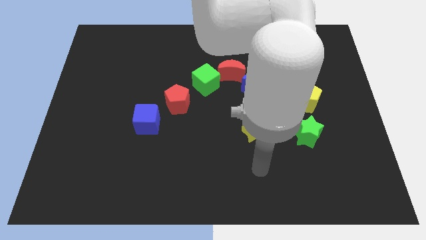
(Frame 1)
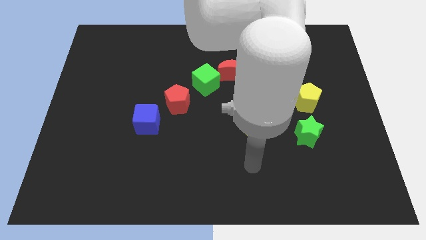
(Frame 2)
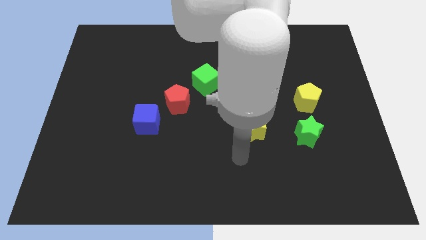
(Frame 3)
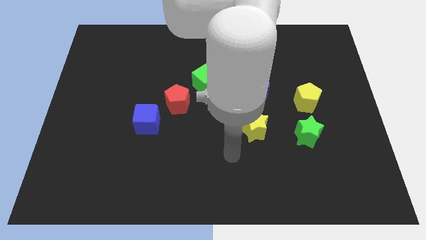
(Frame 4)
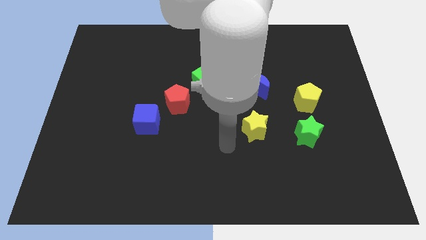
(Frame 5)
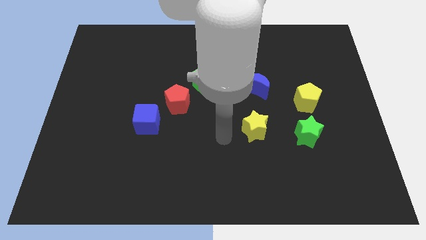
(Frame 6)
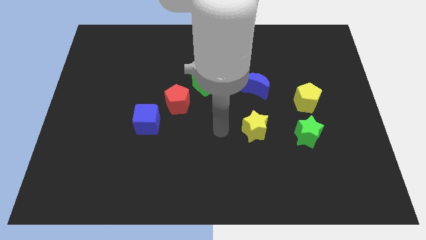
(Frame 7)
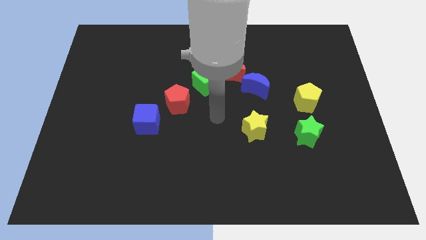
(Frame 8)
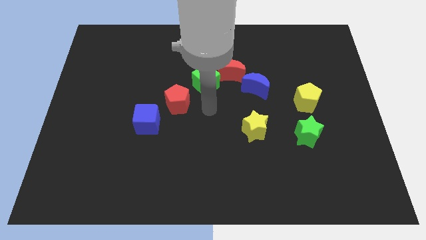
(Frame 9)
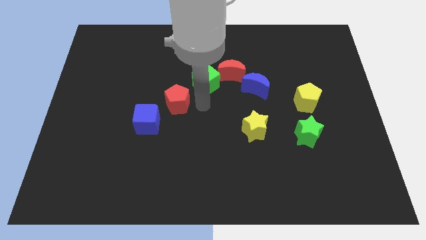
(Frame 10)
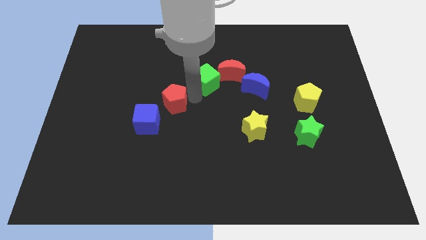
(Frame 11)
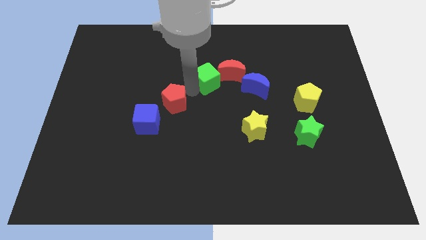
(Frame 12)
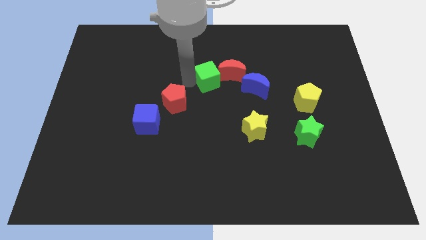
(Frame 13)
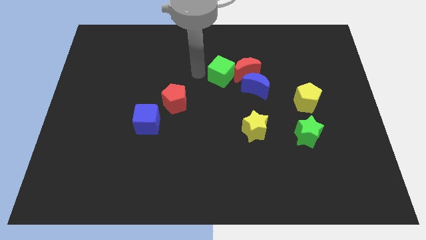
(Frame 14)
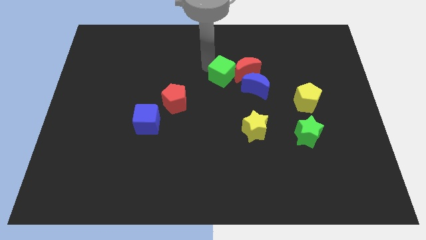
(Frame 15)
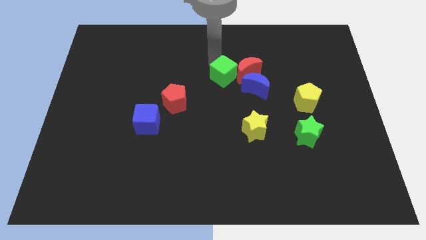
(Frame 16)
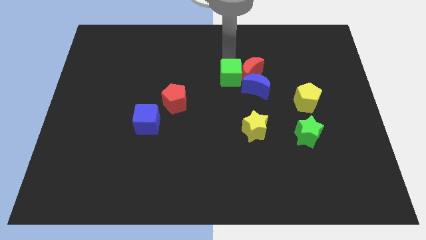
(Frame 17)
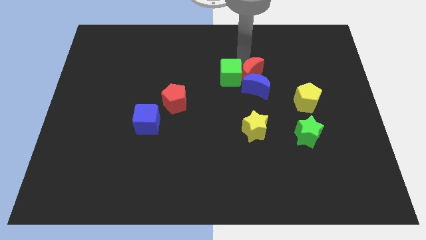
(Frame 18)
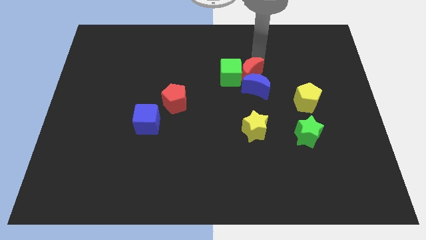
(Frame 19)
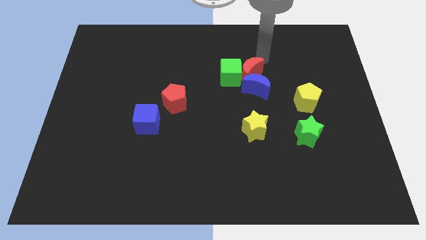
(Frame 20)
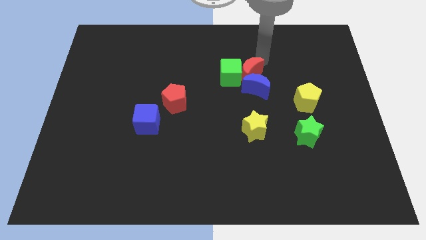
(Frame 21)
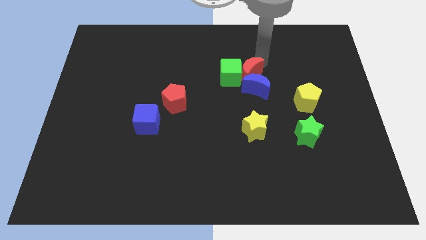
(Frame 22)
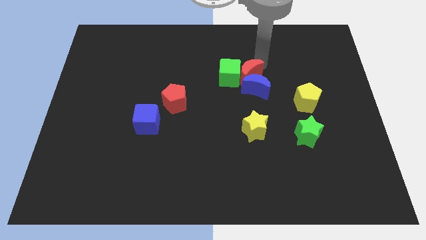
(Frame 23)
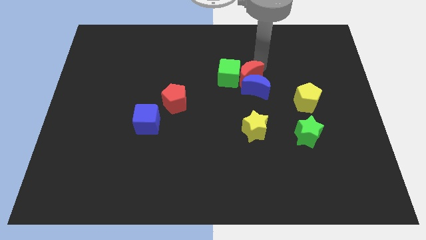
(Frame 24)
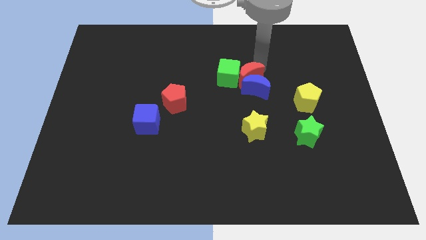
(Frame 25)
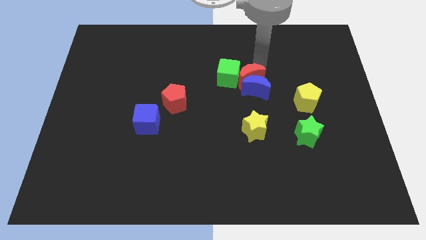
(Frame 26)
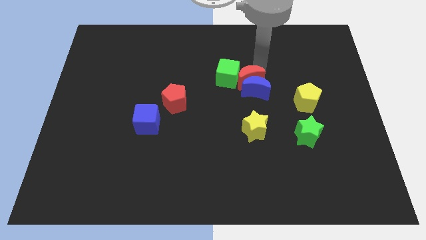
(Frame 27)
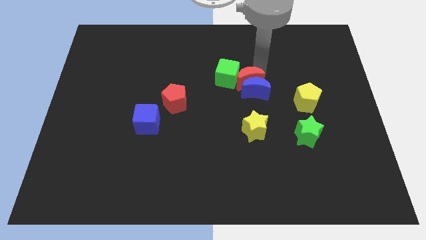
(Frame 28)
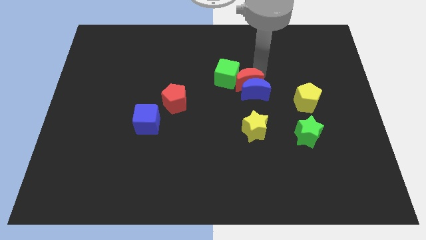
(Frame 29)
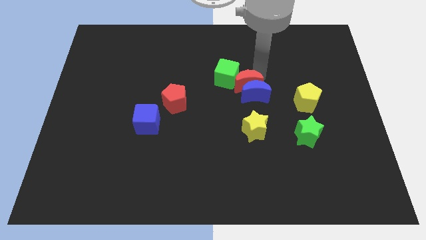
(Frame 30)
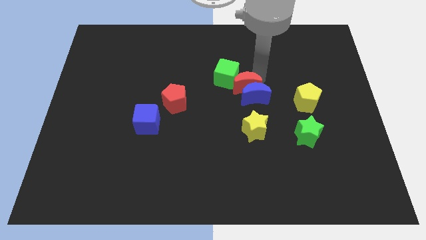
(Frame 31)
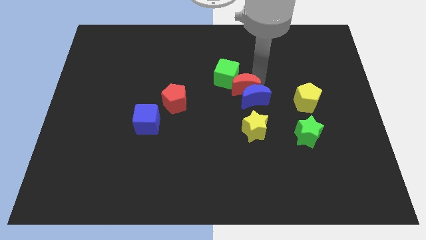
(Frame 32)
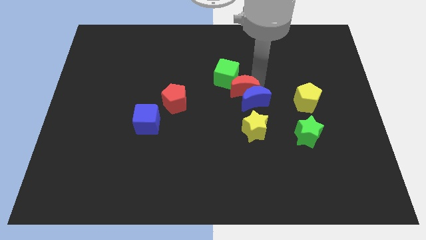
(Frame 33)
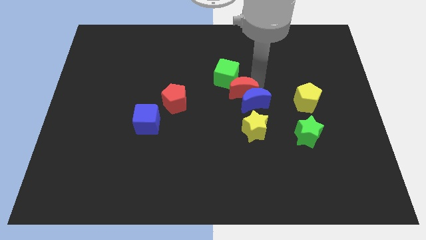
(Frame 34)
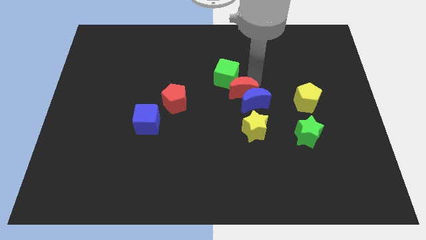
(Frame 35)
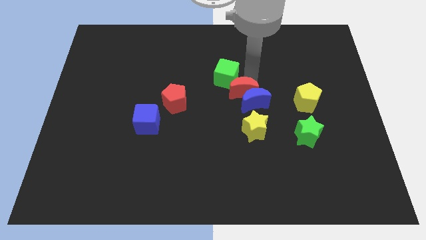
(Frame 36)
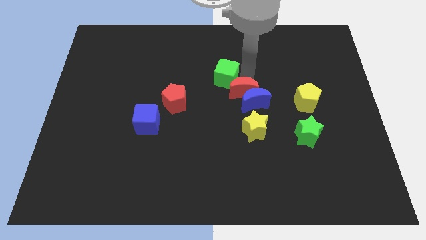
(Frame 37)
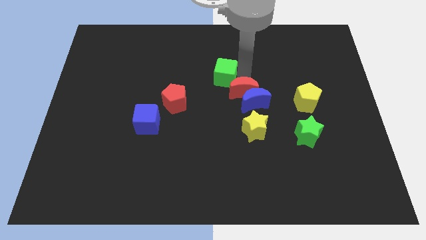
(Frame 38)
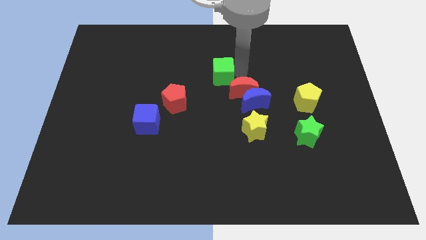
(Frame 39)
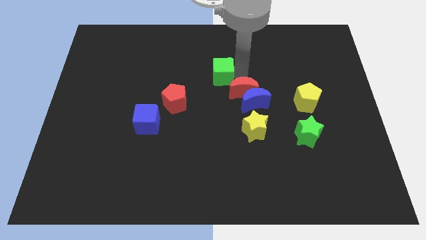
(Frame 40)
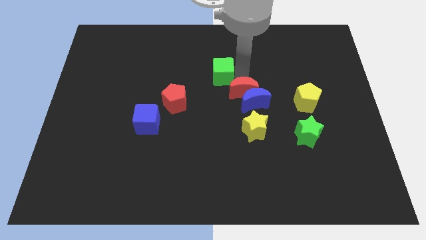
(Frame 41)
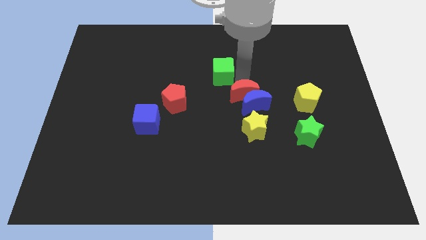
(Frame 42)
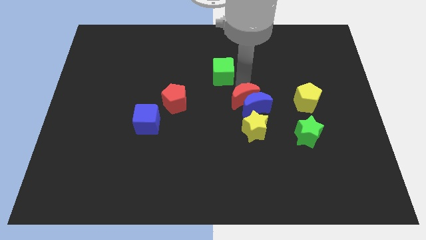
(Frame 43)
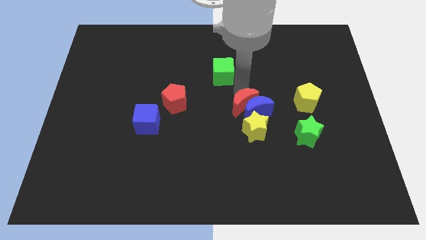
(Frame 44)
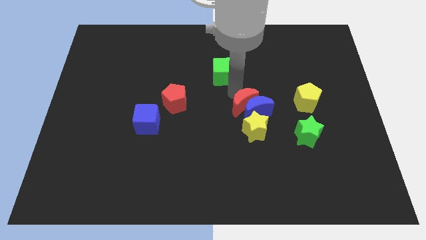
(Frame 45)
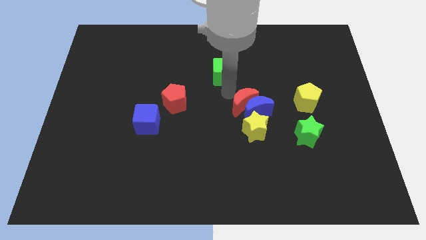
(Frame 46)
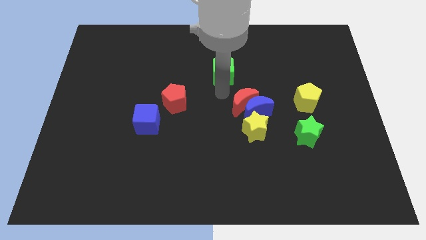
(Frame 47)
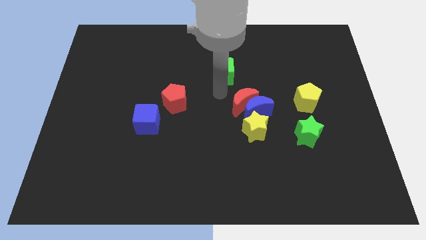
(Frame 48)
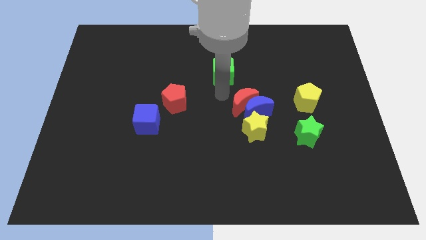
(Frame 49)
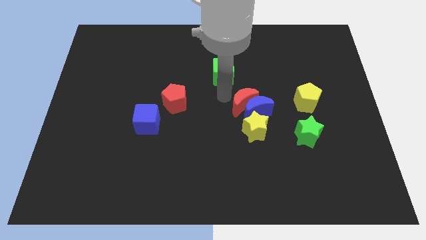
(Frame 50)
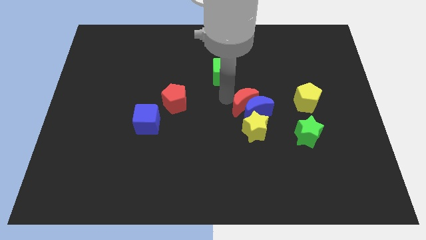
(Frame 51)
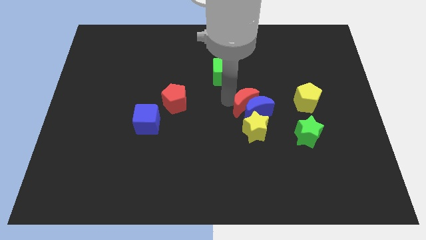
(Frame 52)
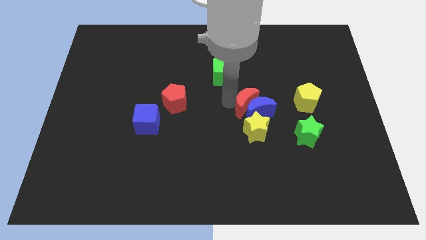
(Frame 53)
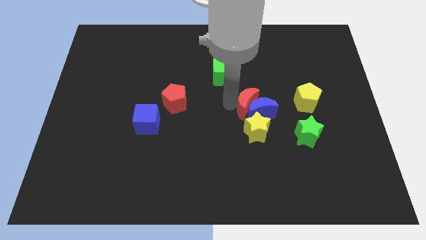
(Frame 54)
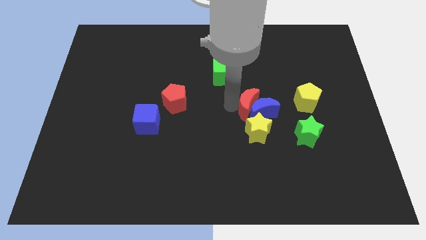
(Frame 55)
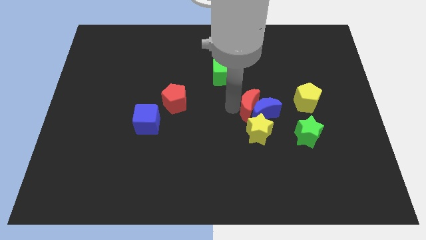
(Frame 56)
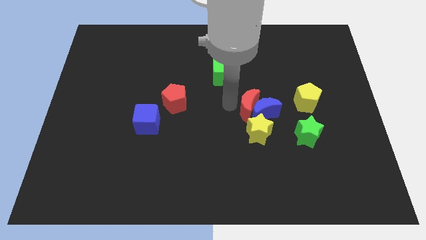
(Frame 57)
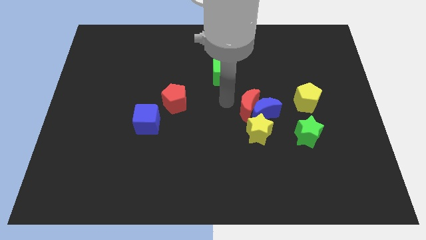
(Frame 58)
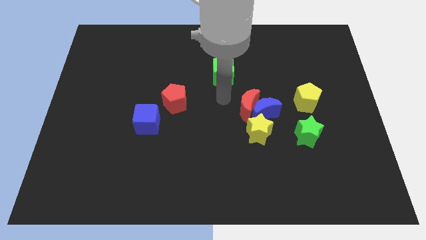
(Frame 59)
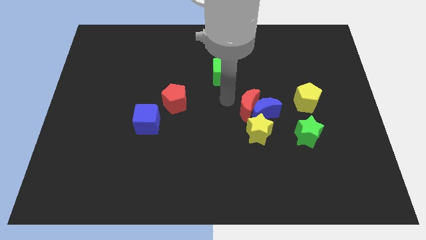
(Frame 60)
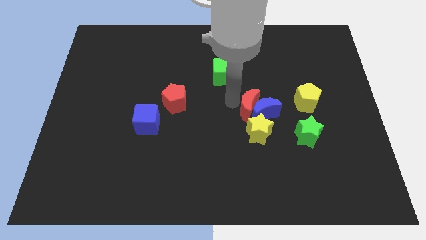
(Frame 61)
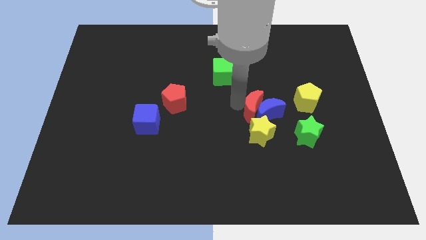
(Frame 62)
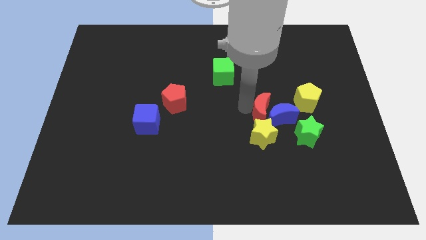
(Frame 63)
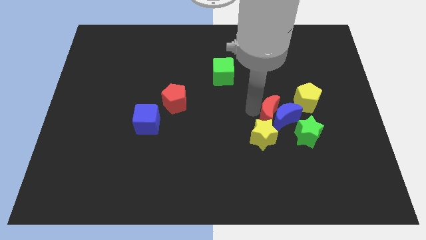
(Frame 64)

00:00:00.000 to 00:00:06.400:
move the red moon to the bottom left side of the yellow pentagon

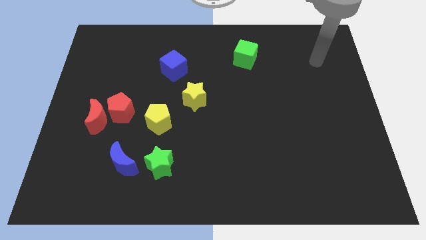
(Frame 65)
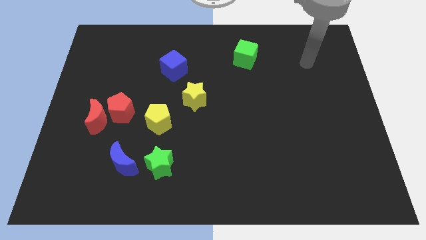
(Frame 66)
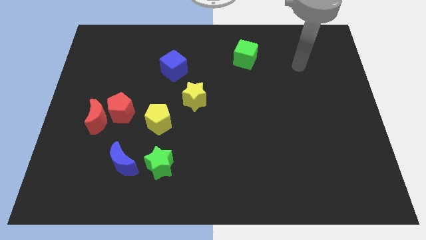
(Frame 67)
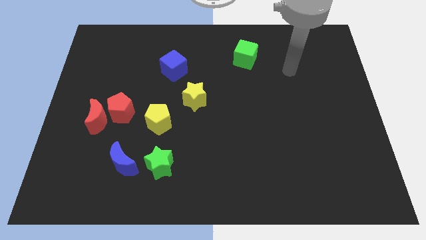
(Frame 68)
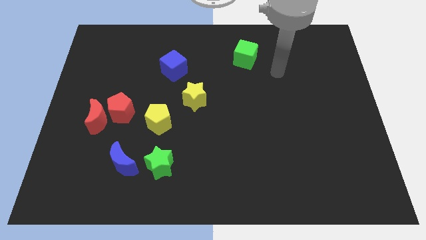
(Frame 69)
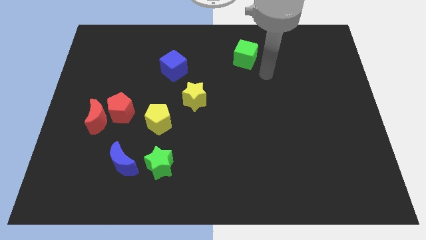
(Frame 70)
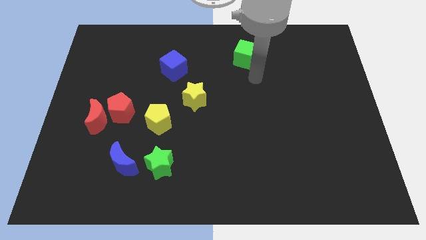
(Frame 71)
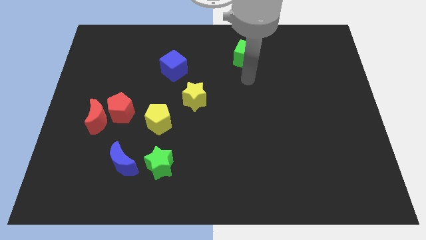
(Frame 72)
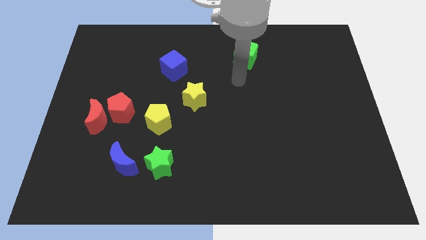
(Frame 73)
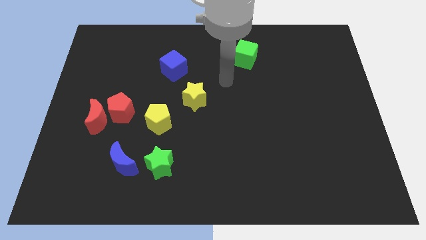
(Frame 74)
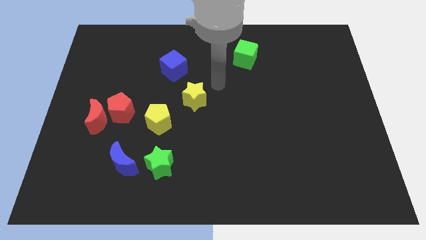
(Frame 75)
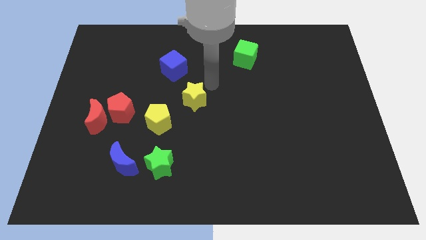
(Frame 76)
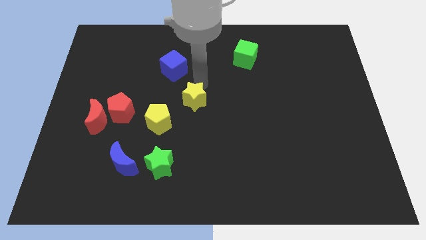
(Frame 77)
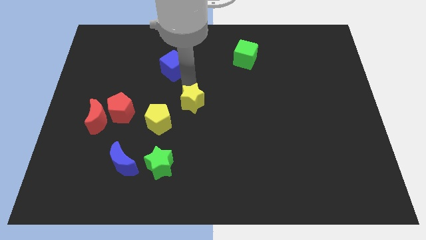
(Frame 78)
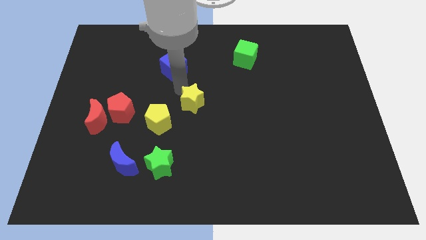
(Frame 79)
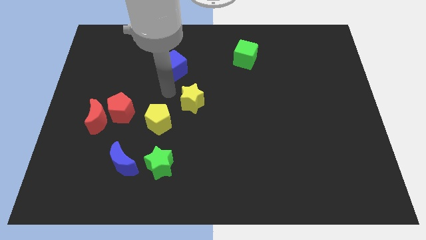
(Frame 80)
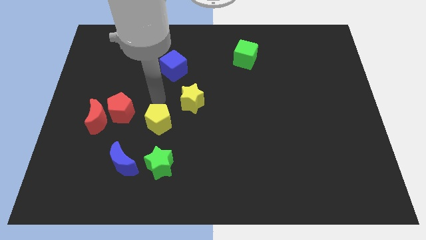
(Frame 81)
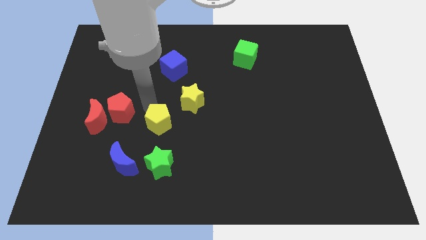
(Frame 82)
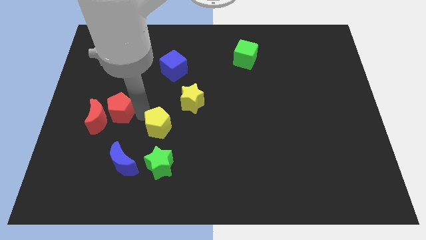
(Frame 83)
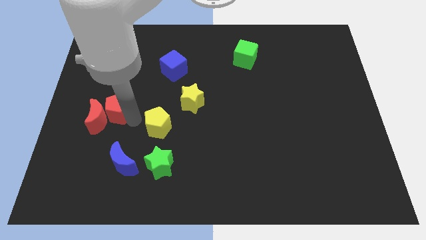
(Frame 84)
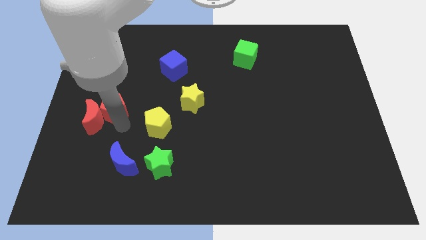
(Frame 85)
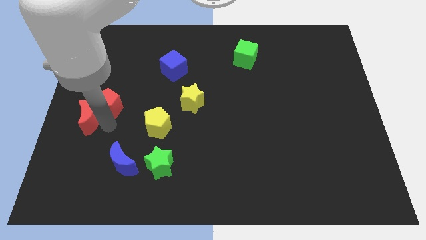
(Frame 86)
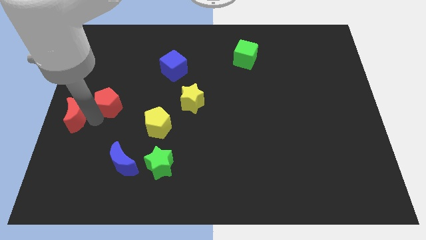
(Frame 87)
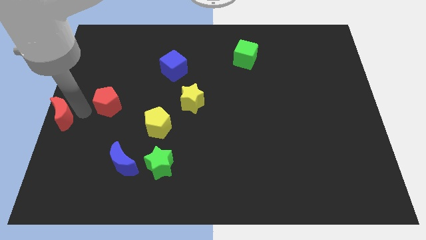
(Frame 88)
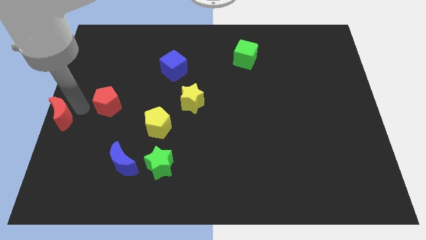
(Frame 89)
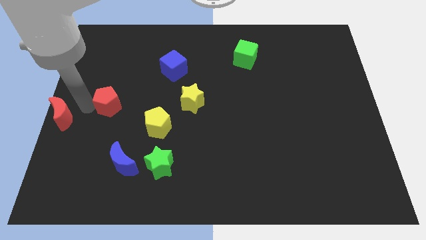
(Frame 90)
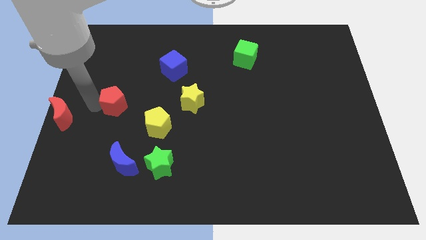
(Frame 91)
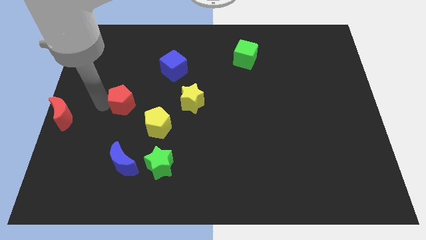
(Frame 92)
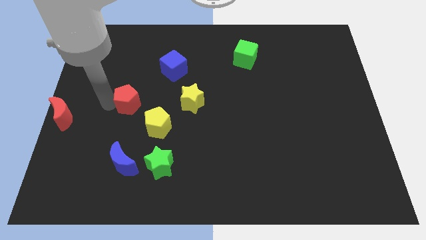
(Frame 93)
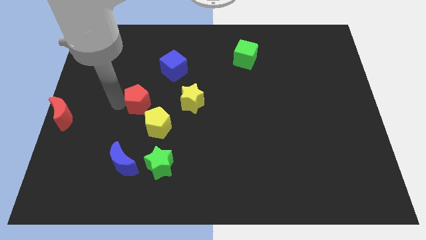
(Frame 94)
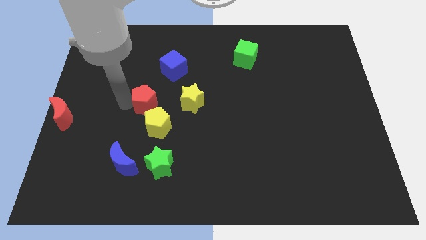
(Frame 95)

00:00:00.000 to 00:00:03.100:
move the red pentagon to the top side of the yellow pentagon
